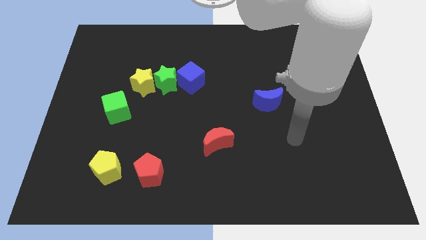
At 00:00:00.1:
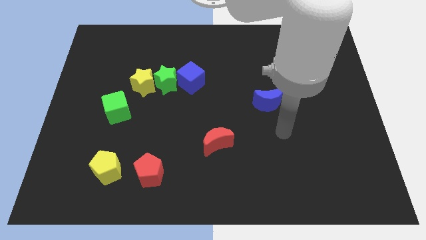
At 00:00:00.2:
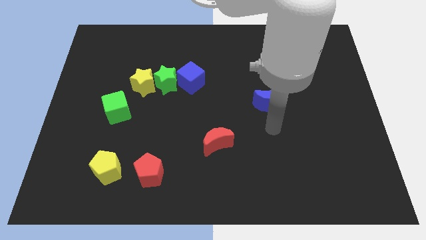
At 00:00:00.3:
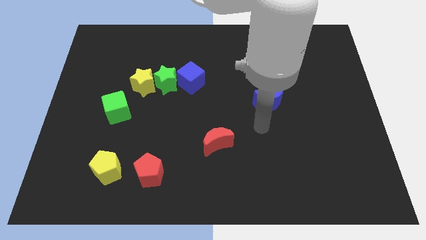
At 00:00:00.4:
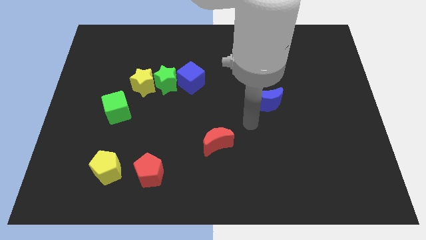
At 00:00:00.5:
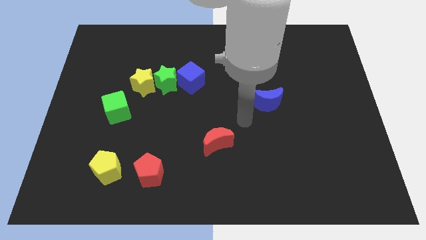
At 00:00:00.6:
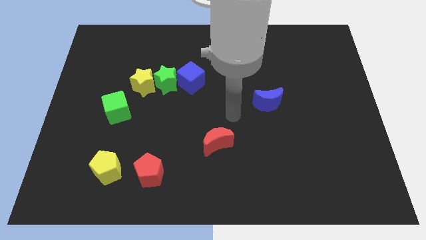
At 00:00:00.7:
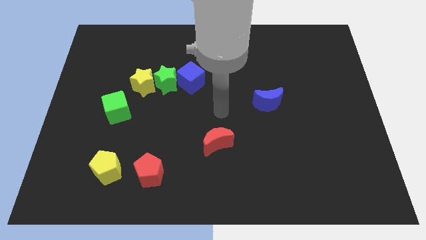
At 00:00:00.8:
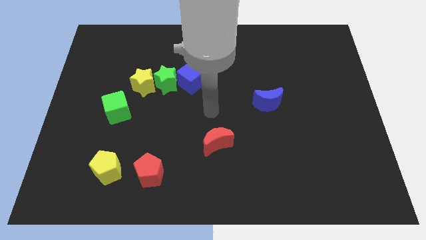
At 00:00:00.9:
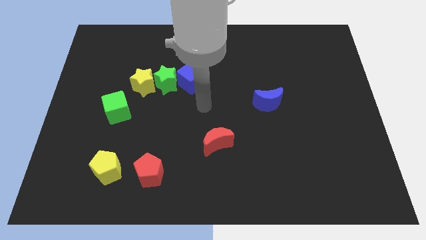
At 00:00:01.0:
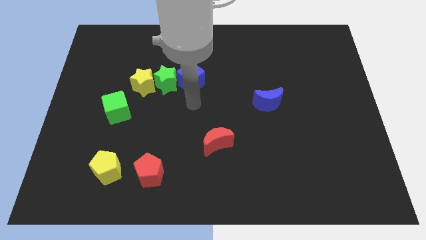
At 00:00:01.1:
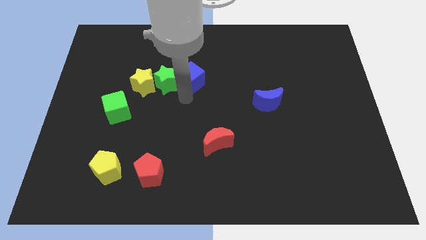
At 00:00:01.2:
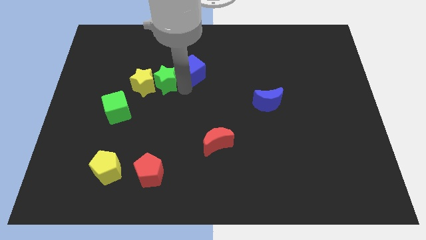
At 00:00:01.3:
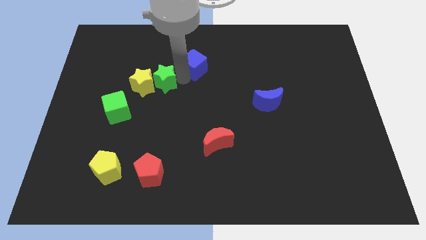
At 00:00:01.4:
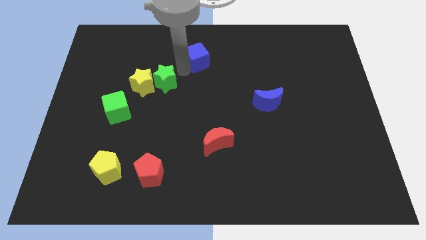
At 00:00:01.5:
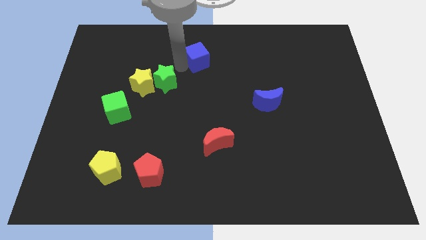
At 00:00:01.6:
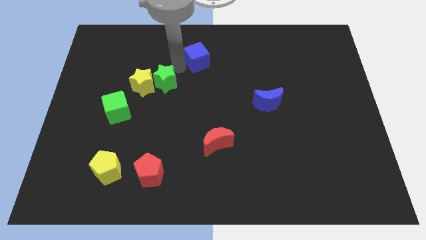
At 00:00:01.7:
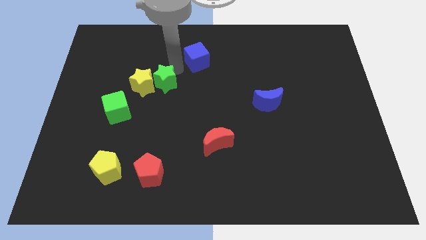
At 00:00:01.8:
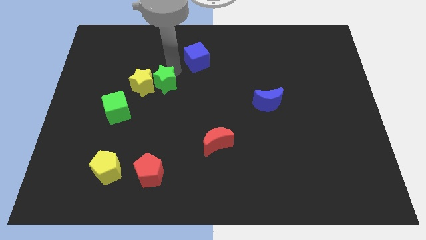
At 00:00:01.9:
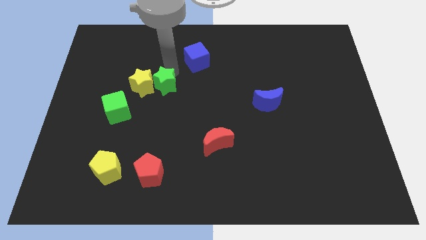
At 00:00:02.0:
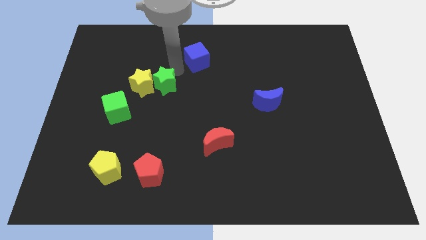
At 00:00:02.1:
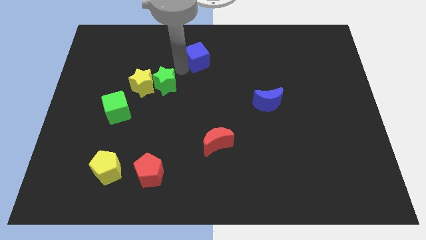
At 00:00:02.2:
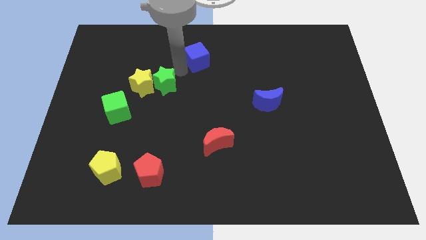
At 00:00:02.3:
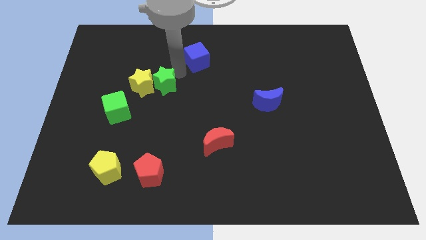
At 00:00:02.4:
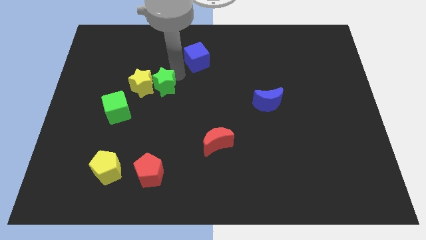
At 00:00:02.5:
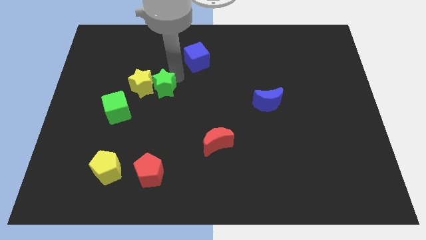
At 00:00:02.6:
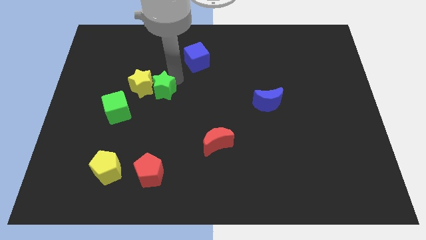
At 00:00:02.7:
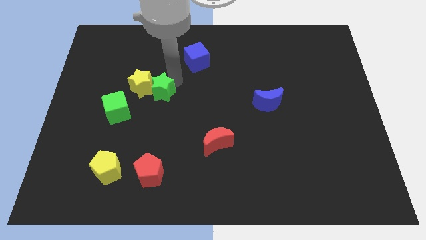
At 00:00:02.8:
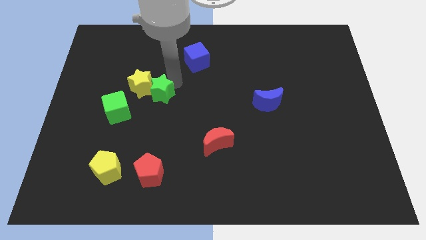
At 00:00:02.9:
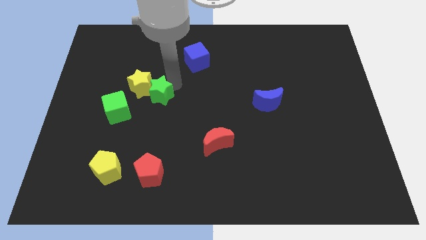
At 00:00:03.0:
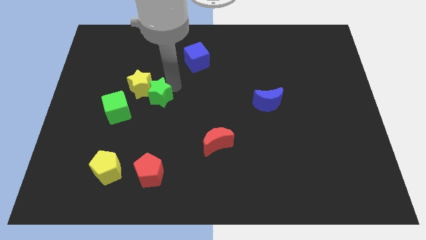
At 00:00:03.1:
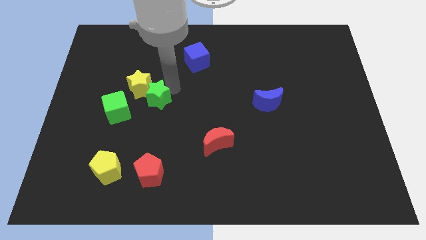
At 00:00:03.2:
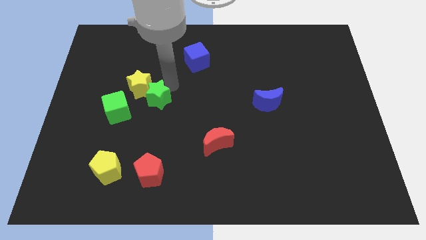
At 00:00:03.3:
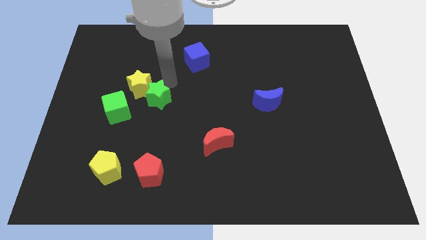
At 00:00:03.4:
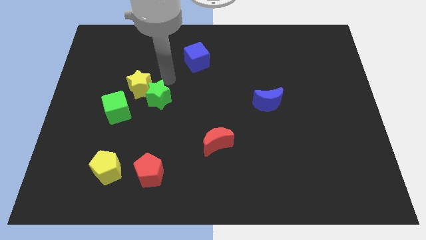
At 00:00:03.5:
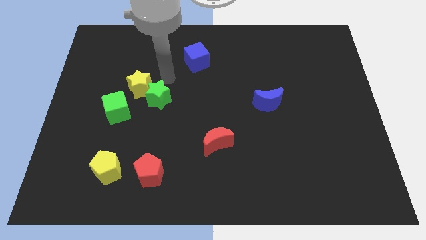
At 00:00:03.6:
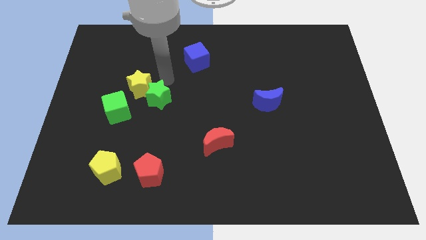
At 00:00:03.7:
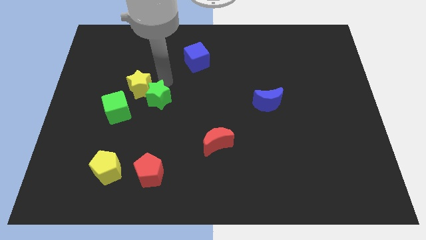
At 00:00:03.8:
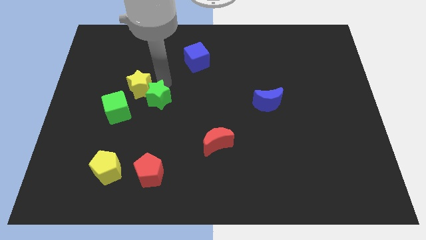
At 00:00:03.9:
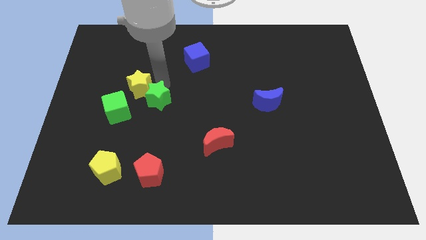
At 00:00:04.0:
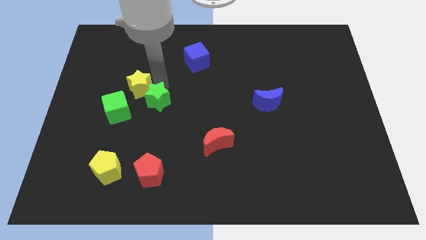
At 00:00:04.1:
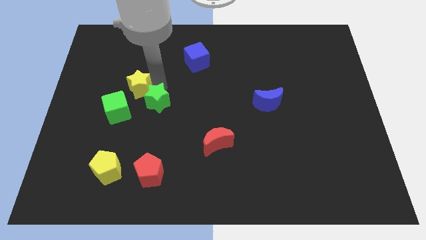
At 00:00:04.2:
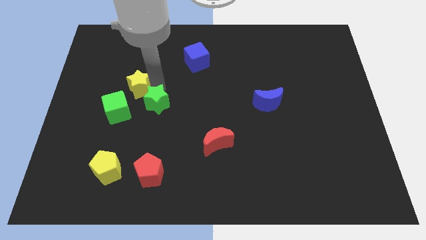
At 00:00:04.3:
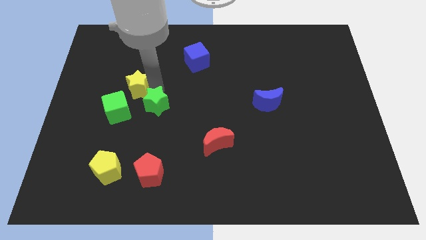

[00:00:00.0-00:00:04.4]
pull the green star apart from the yellow star and blue cube

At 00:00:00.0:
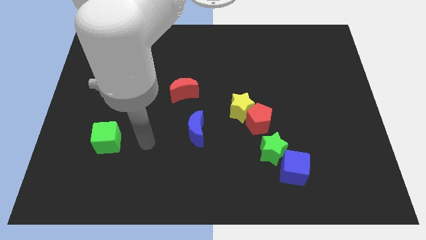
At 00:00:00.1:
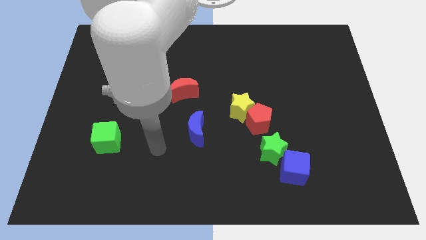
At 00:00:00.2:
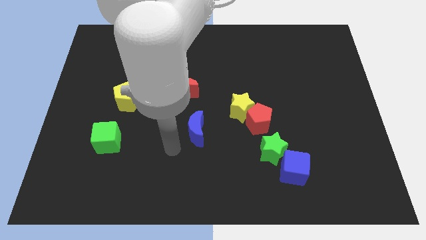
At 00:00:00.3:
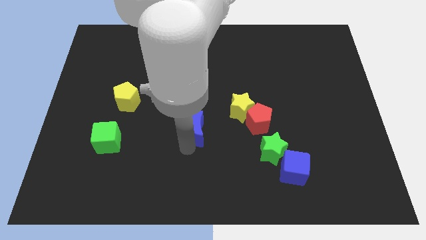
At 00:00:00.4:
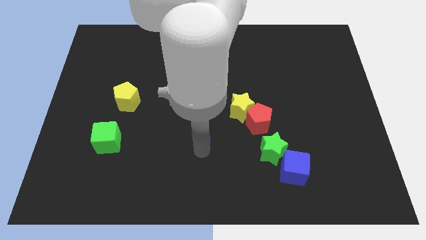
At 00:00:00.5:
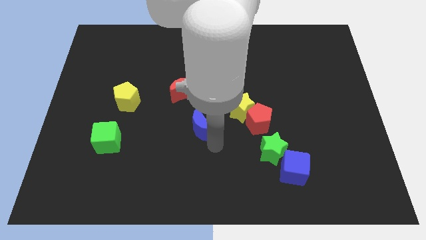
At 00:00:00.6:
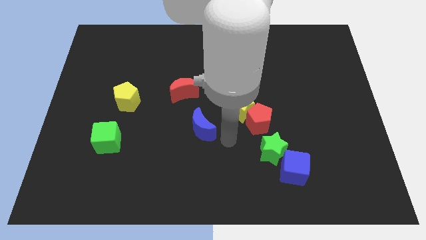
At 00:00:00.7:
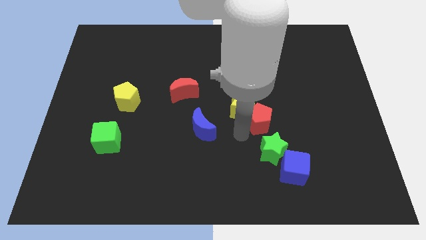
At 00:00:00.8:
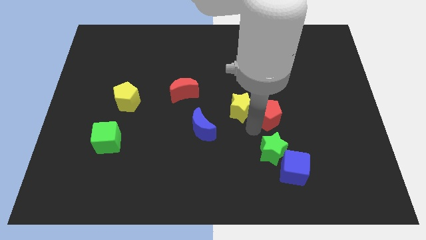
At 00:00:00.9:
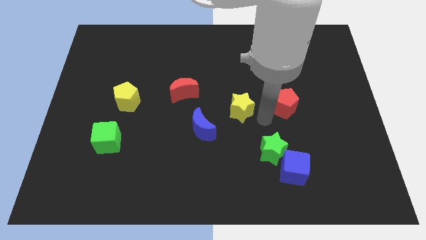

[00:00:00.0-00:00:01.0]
separate the yellow star from the red pentagon

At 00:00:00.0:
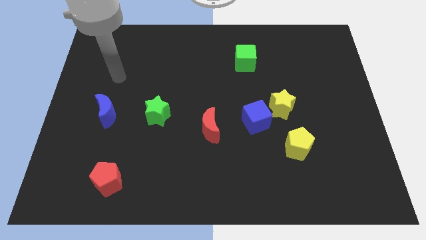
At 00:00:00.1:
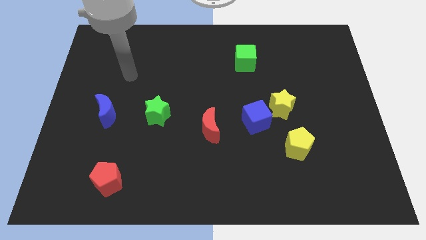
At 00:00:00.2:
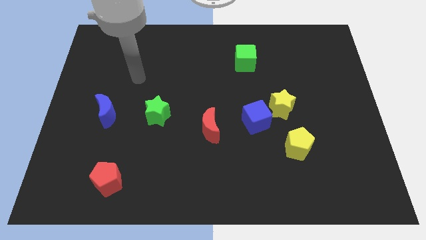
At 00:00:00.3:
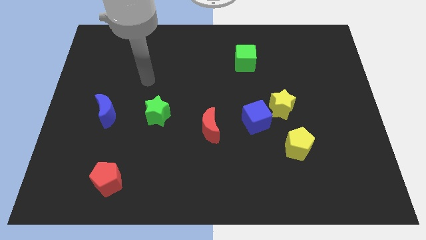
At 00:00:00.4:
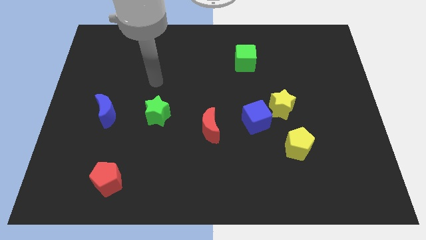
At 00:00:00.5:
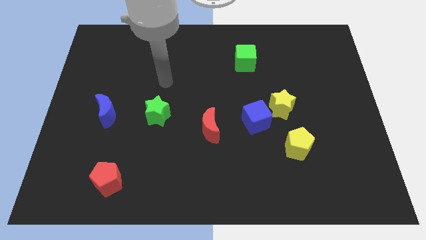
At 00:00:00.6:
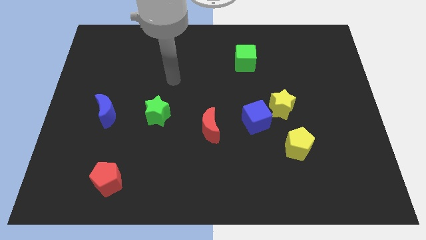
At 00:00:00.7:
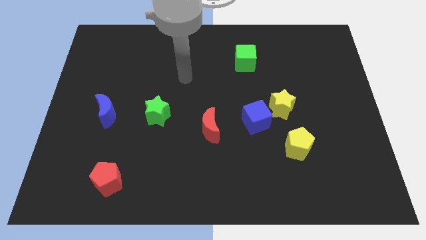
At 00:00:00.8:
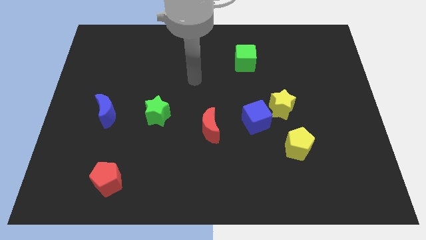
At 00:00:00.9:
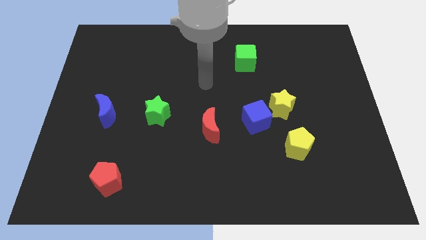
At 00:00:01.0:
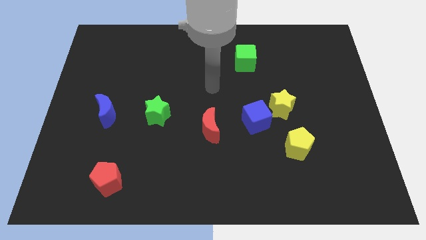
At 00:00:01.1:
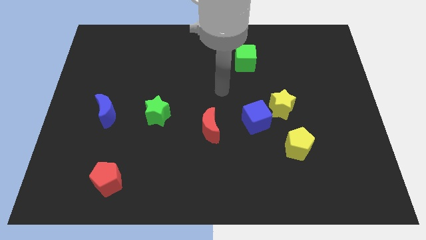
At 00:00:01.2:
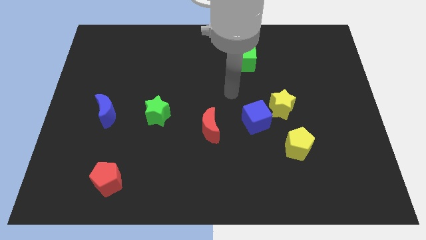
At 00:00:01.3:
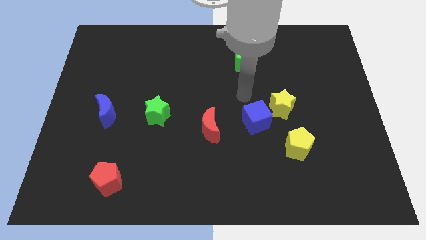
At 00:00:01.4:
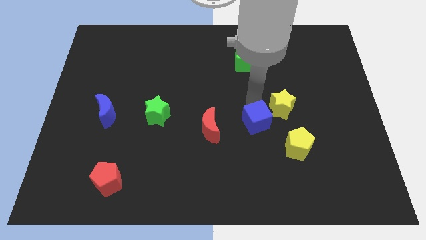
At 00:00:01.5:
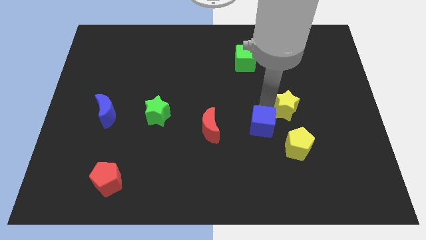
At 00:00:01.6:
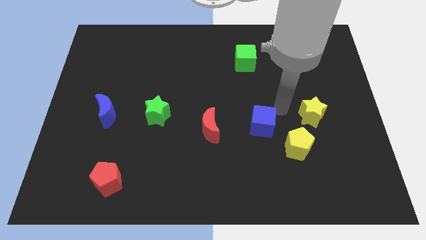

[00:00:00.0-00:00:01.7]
separate the blue cube from the yellow star

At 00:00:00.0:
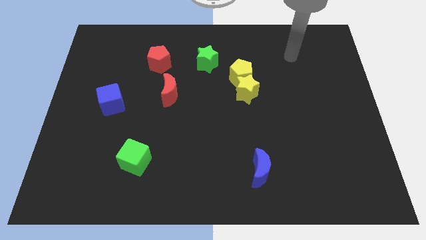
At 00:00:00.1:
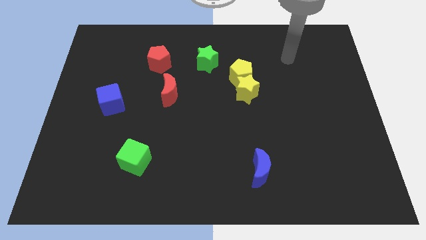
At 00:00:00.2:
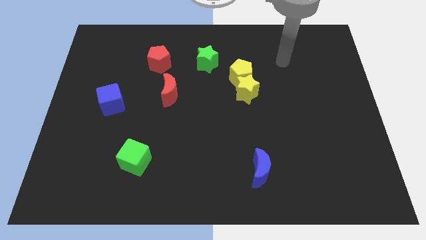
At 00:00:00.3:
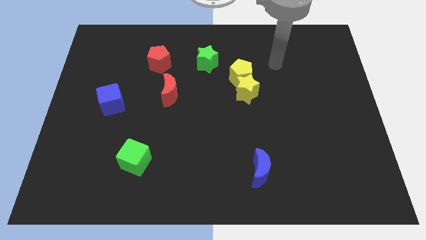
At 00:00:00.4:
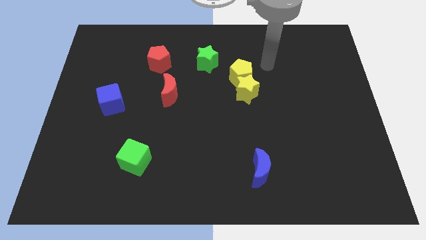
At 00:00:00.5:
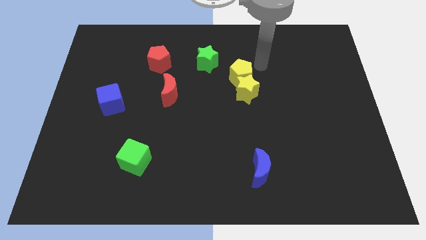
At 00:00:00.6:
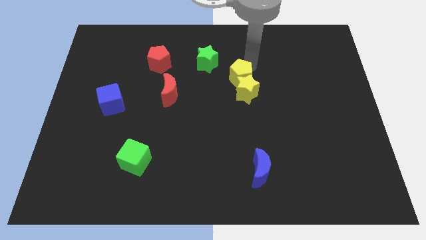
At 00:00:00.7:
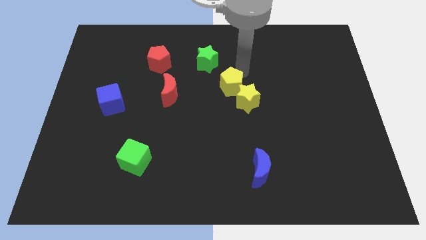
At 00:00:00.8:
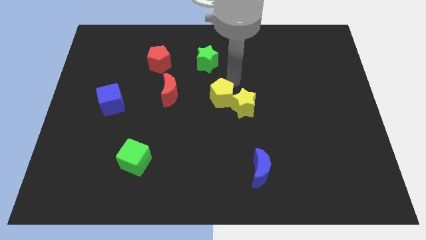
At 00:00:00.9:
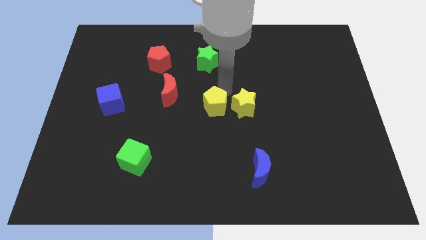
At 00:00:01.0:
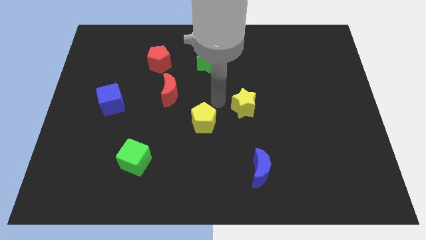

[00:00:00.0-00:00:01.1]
separate the yellow star from the yellow pentagon

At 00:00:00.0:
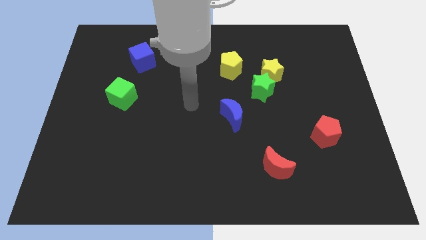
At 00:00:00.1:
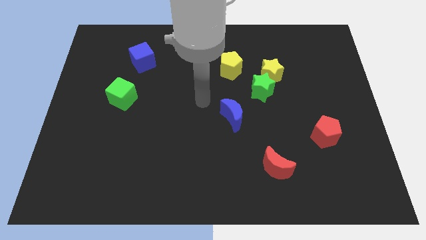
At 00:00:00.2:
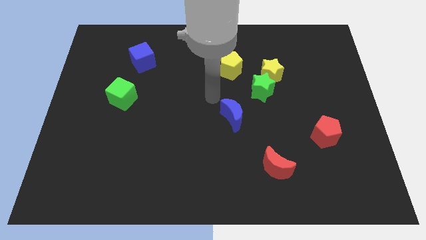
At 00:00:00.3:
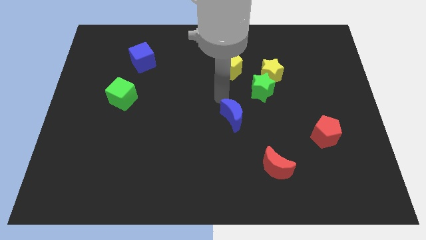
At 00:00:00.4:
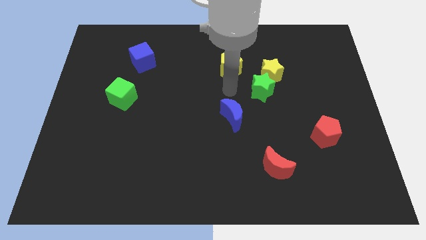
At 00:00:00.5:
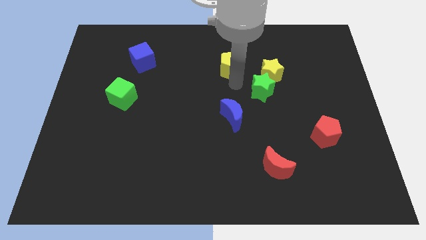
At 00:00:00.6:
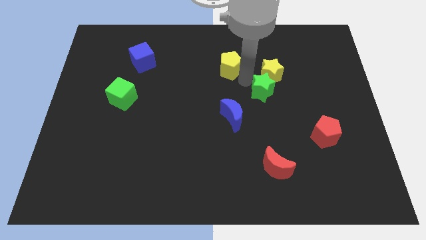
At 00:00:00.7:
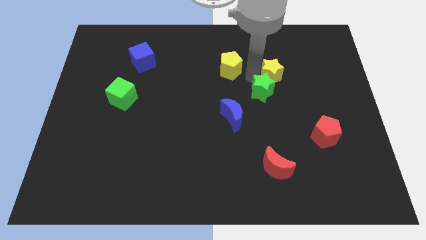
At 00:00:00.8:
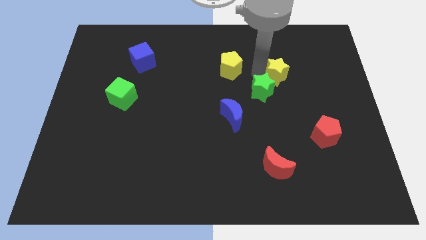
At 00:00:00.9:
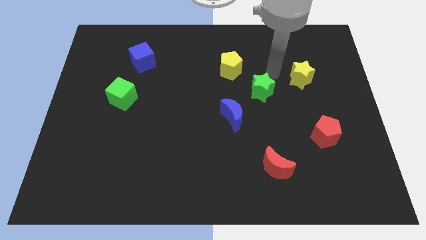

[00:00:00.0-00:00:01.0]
pull the green star apart from the yellow star

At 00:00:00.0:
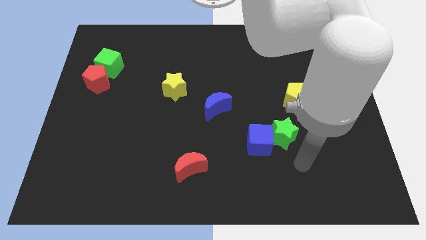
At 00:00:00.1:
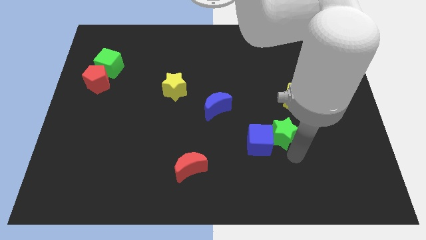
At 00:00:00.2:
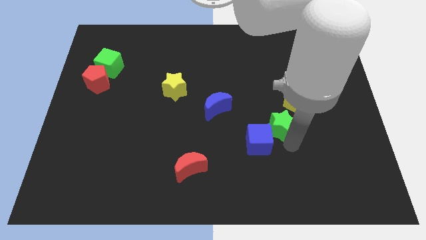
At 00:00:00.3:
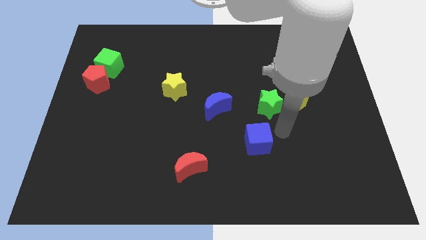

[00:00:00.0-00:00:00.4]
separate the blue cube from the green star
